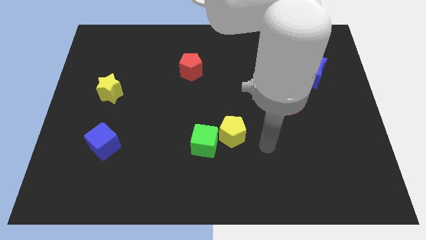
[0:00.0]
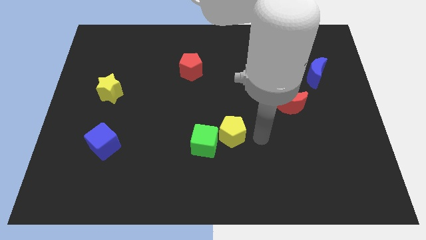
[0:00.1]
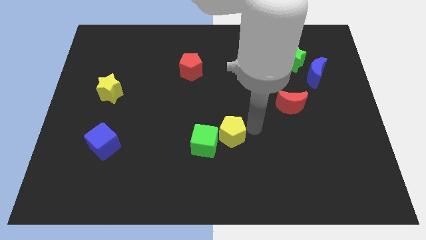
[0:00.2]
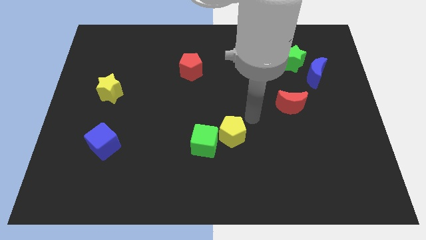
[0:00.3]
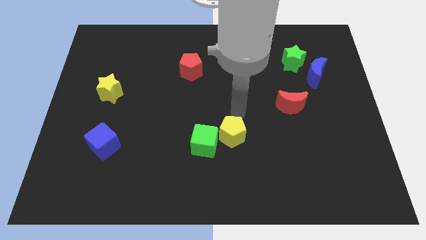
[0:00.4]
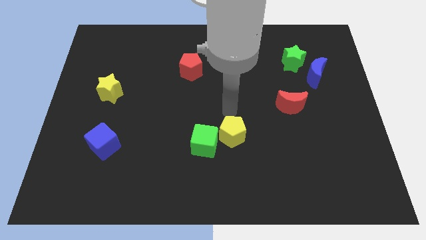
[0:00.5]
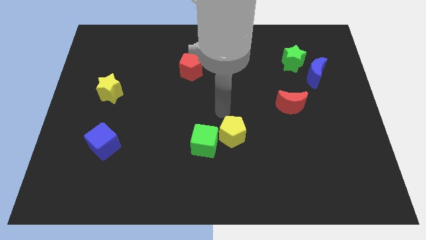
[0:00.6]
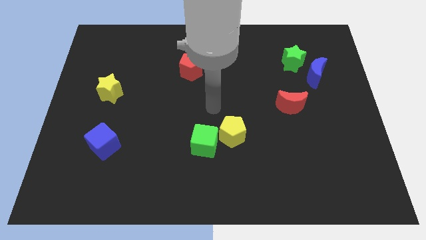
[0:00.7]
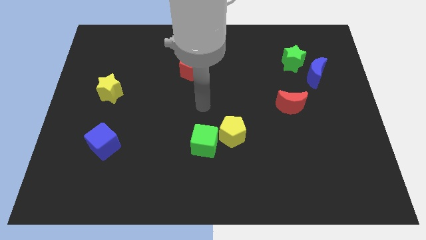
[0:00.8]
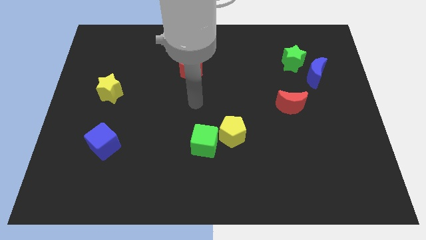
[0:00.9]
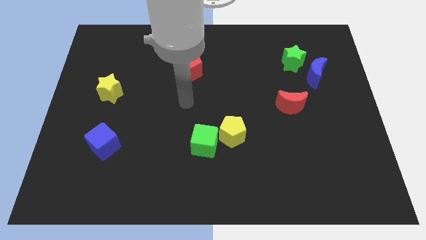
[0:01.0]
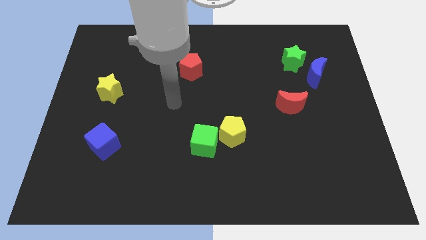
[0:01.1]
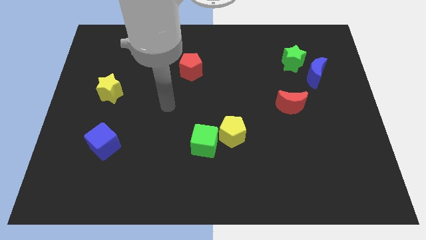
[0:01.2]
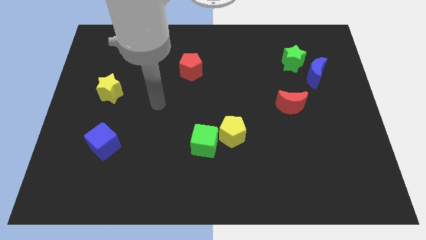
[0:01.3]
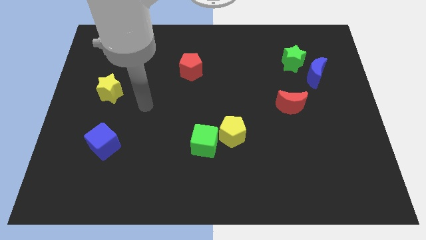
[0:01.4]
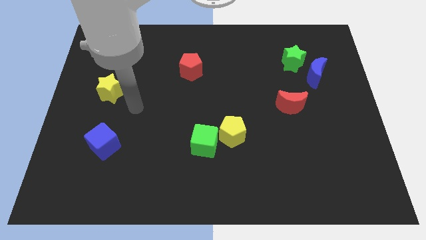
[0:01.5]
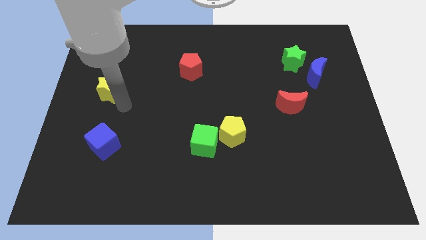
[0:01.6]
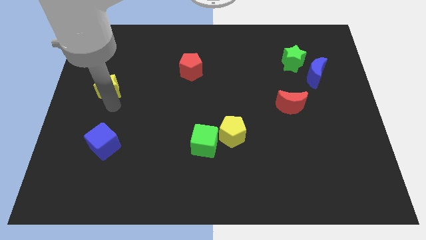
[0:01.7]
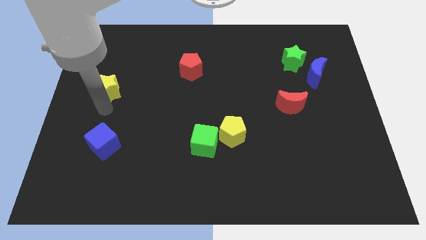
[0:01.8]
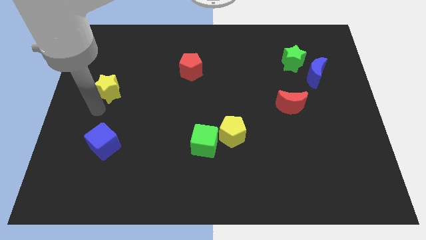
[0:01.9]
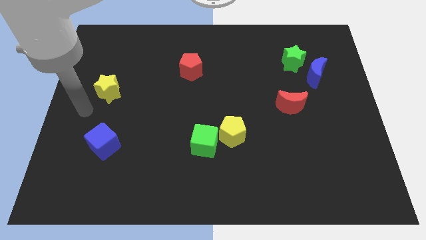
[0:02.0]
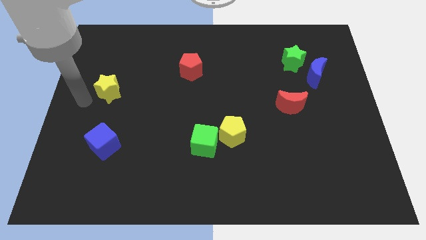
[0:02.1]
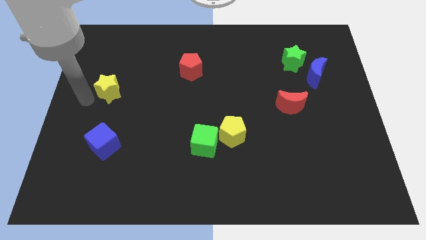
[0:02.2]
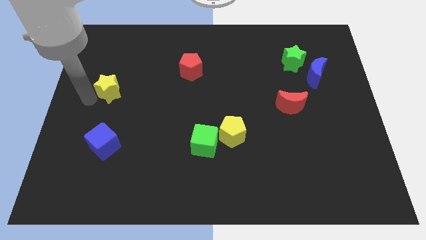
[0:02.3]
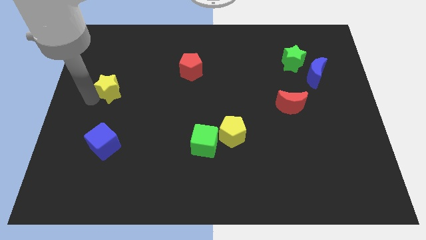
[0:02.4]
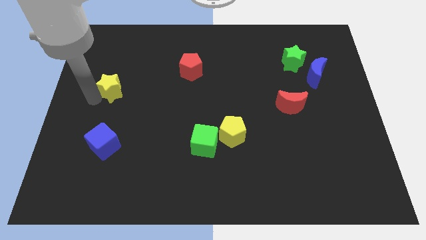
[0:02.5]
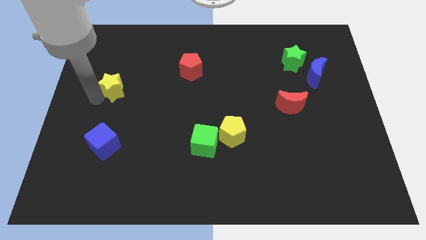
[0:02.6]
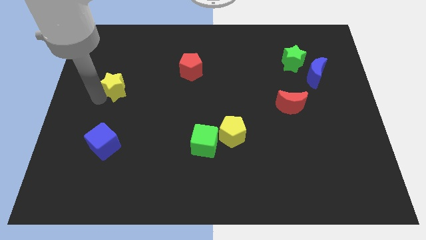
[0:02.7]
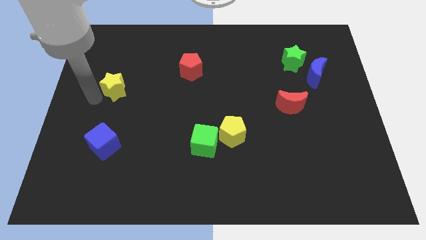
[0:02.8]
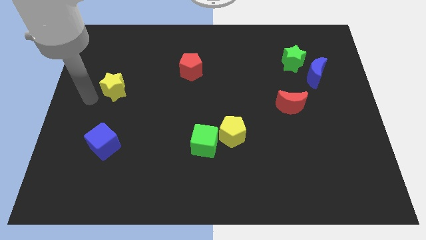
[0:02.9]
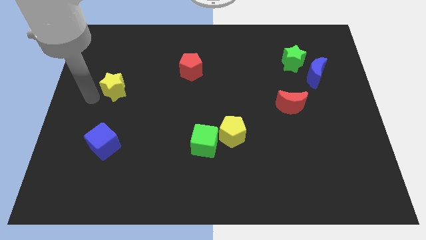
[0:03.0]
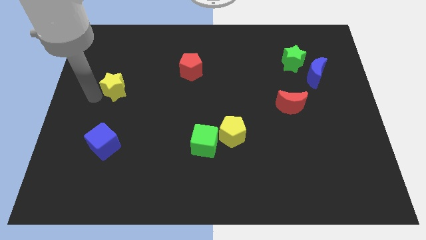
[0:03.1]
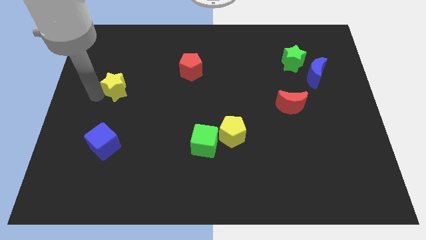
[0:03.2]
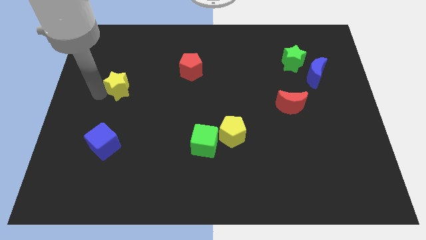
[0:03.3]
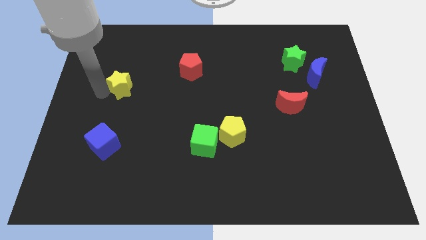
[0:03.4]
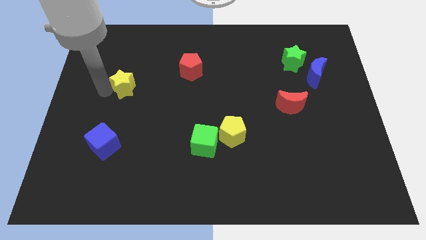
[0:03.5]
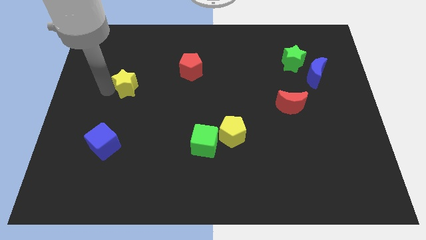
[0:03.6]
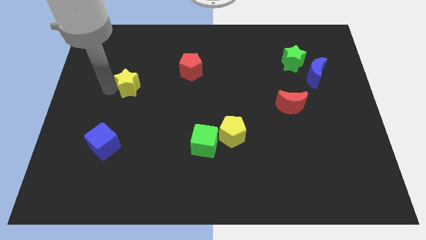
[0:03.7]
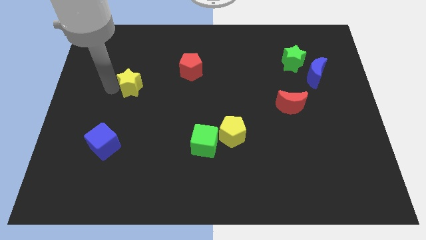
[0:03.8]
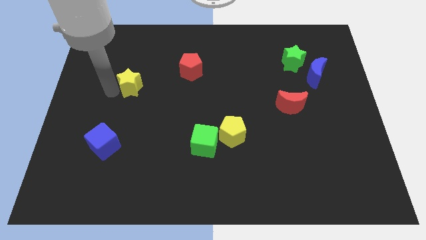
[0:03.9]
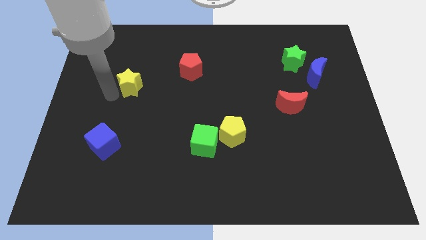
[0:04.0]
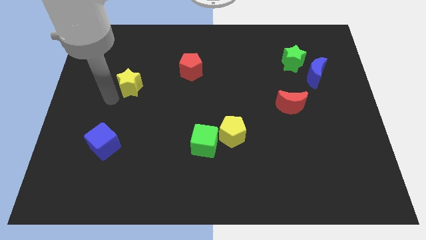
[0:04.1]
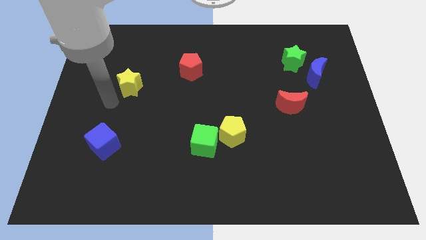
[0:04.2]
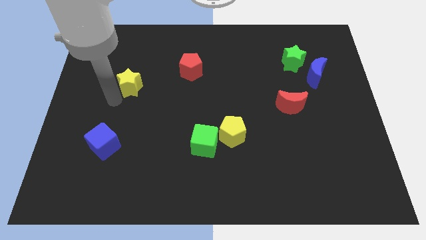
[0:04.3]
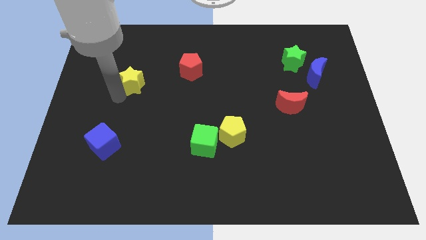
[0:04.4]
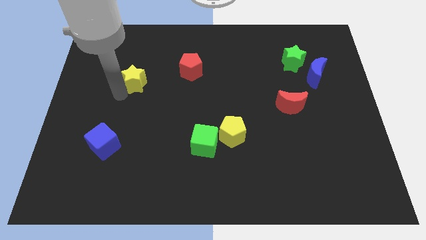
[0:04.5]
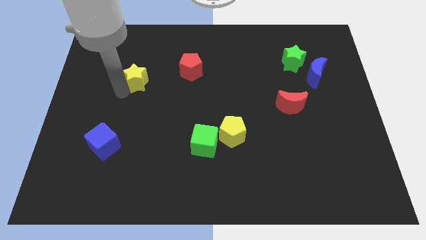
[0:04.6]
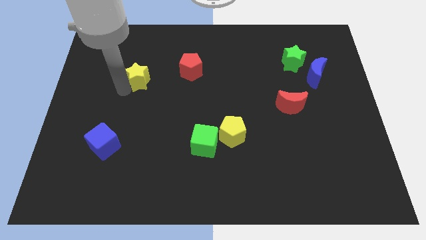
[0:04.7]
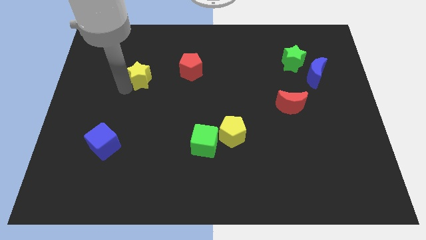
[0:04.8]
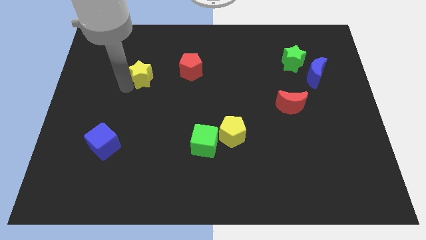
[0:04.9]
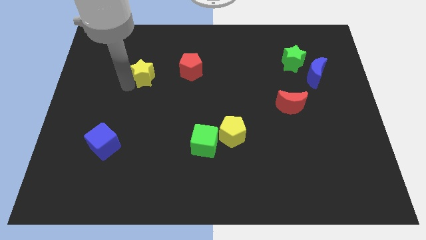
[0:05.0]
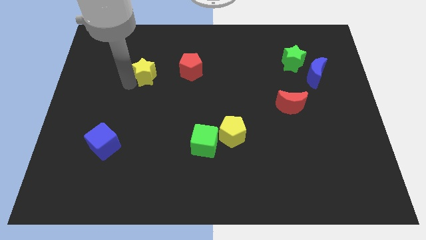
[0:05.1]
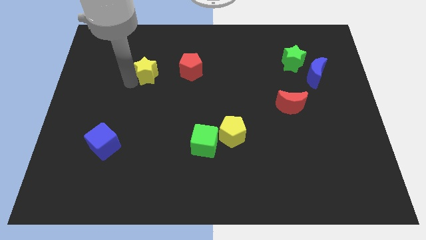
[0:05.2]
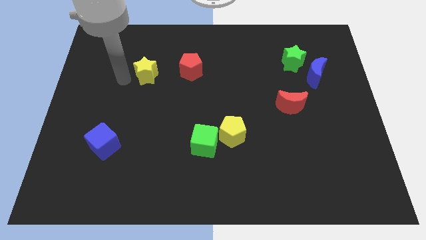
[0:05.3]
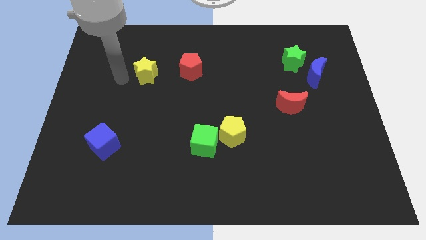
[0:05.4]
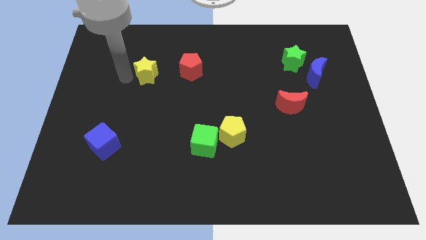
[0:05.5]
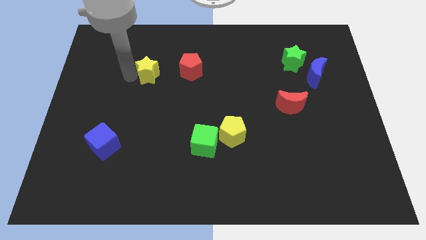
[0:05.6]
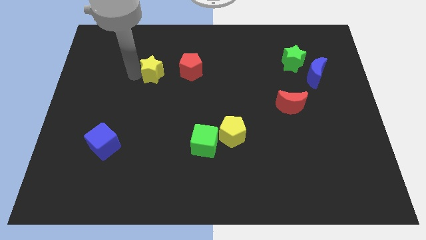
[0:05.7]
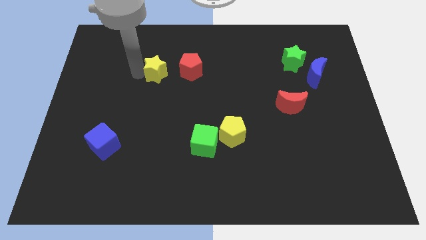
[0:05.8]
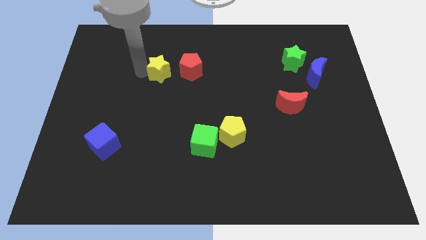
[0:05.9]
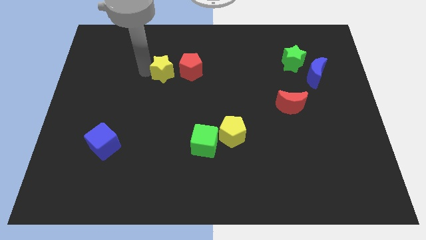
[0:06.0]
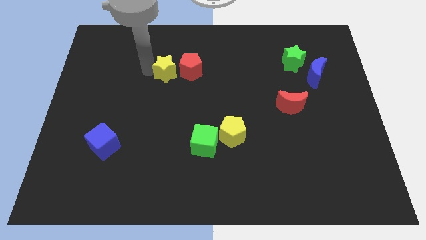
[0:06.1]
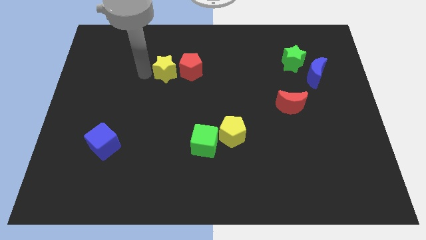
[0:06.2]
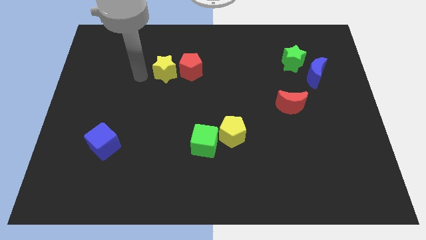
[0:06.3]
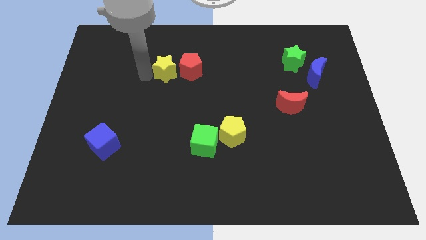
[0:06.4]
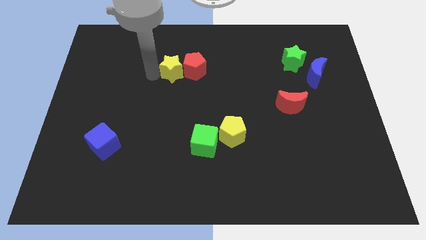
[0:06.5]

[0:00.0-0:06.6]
move the yellow star close to the red pentagon
